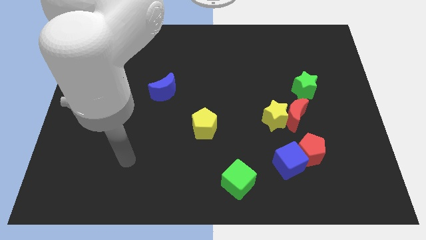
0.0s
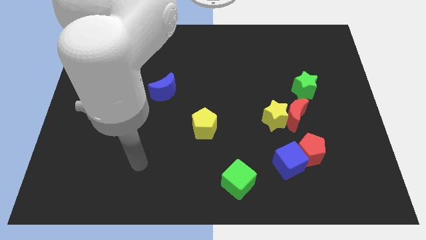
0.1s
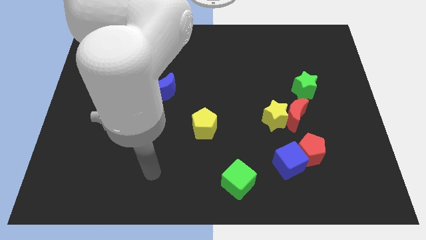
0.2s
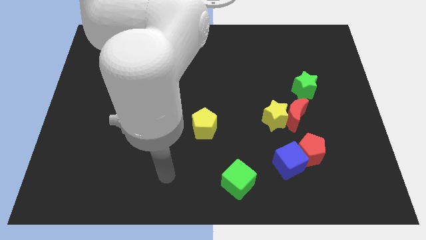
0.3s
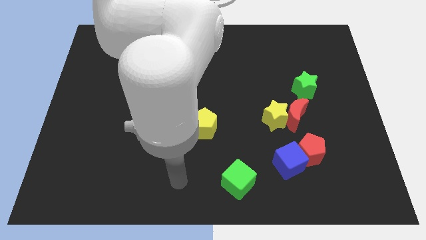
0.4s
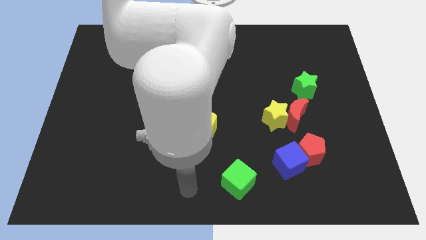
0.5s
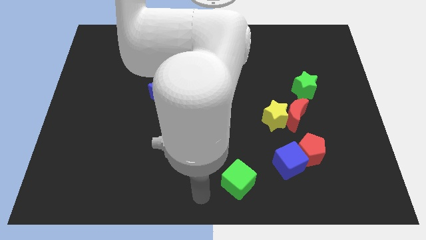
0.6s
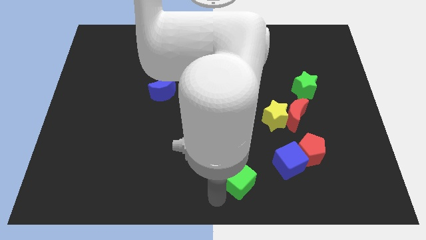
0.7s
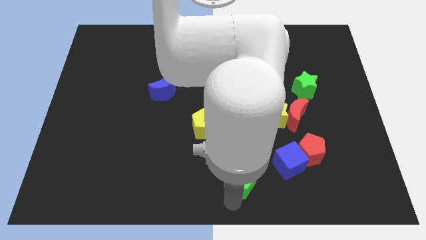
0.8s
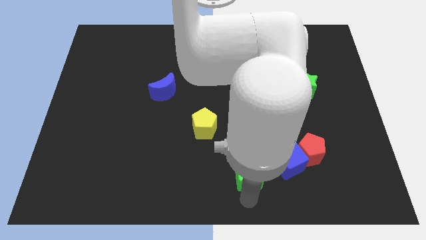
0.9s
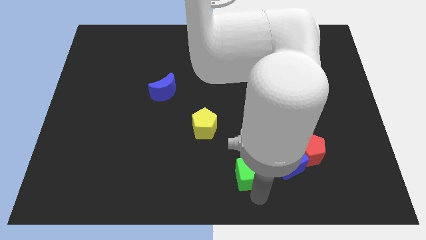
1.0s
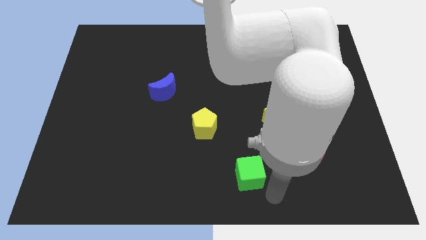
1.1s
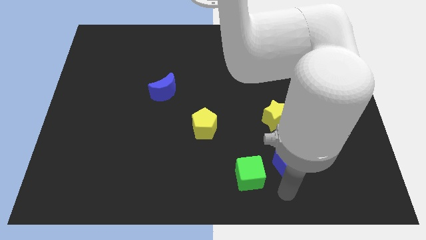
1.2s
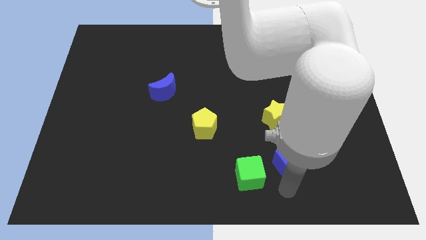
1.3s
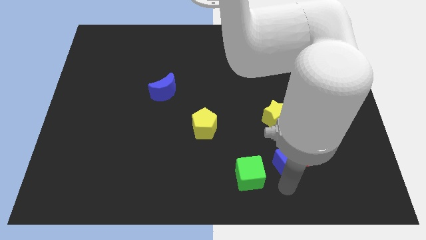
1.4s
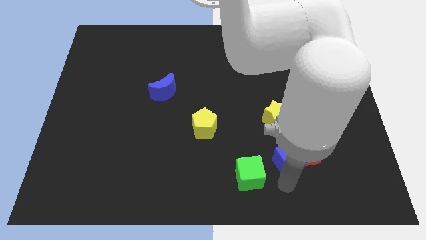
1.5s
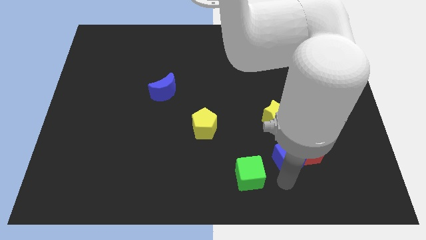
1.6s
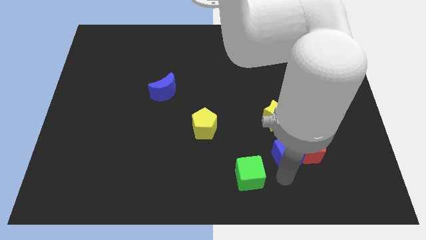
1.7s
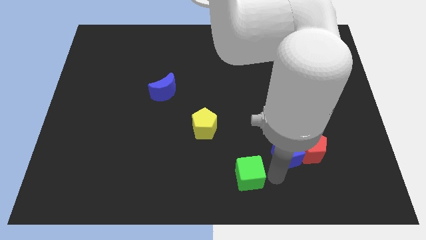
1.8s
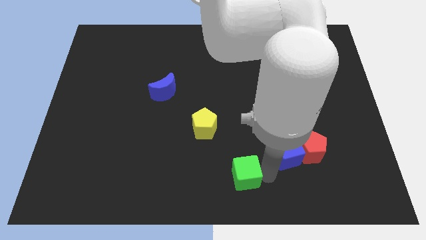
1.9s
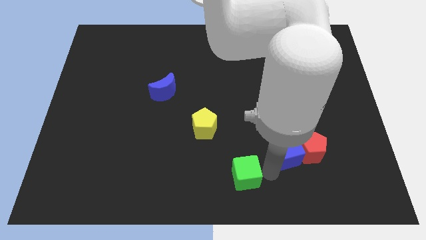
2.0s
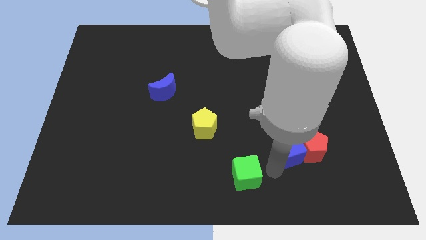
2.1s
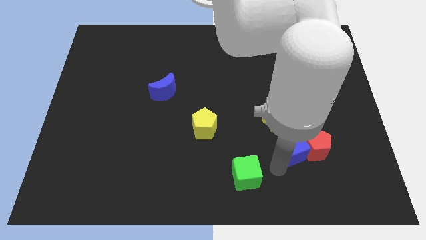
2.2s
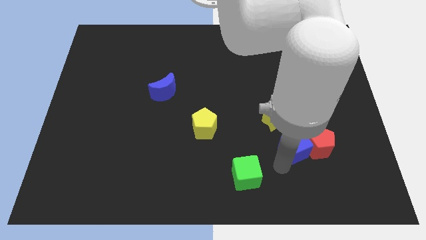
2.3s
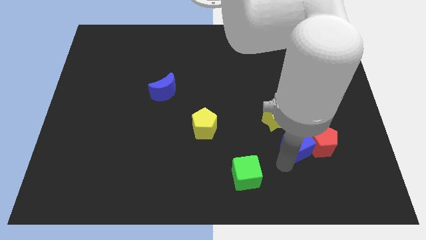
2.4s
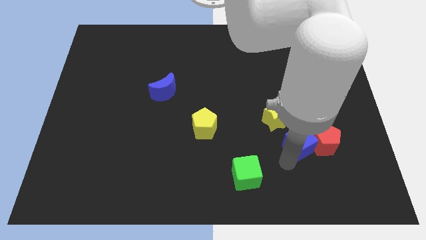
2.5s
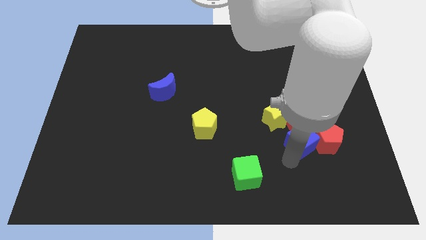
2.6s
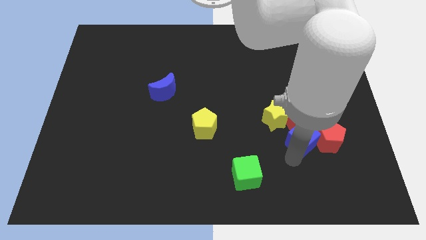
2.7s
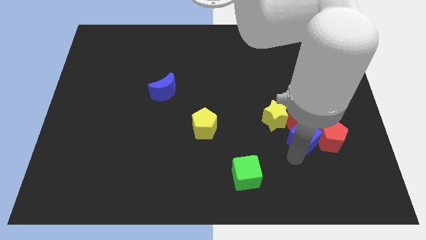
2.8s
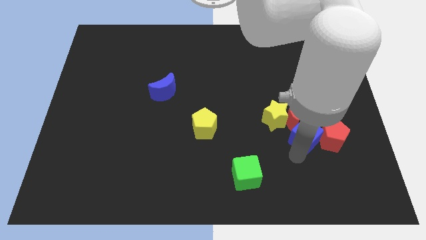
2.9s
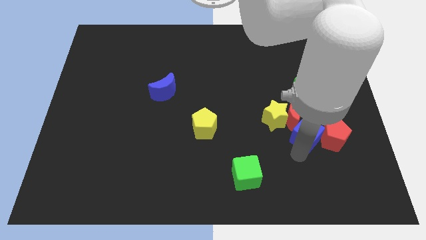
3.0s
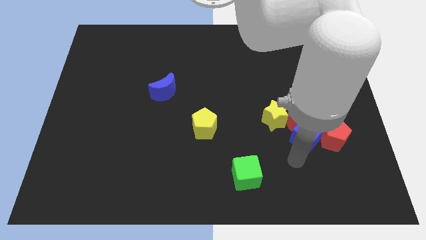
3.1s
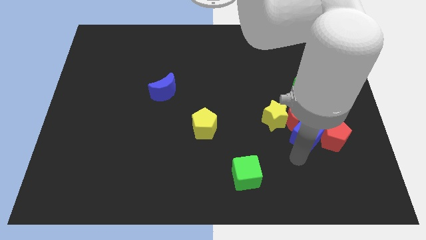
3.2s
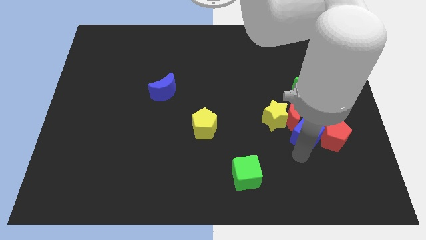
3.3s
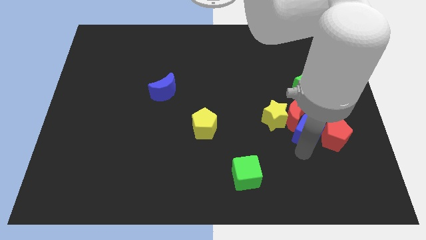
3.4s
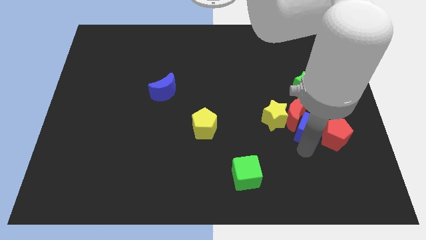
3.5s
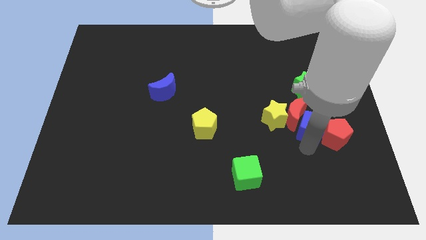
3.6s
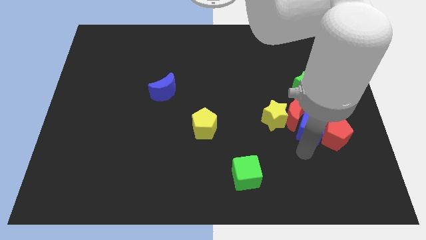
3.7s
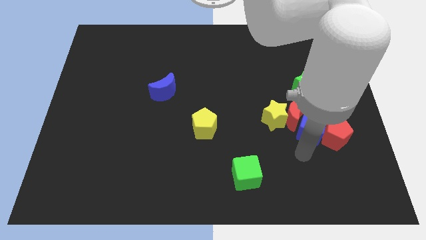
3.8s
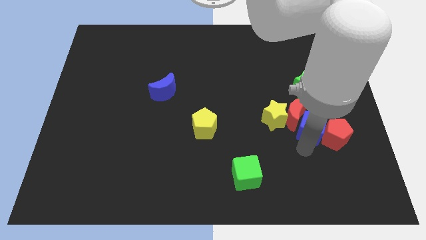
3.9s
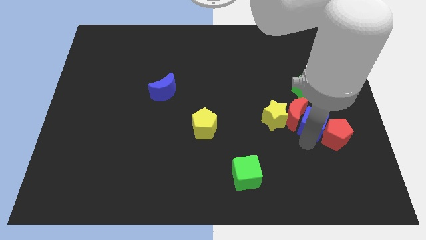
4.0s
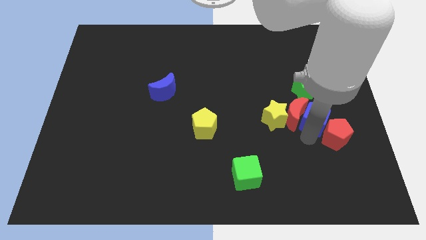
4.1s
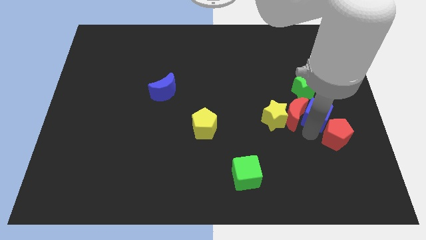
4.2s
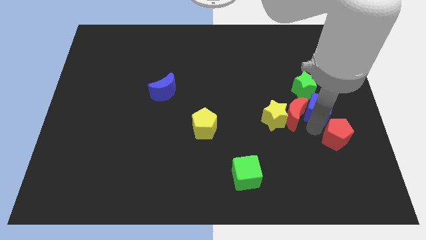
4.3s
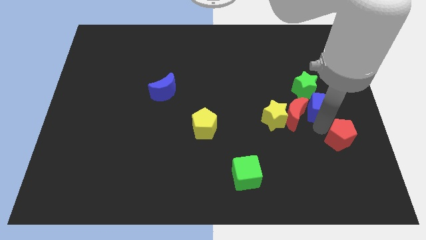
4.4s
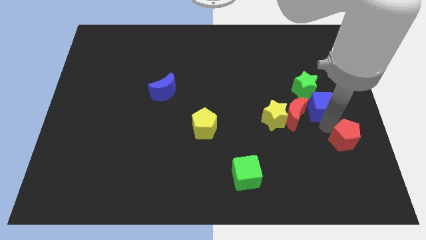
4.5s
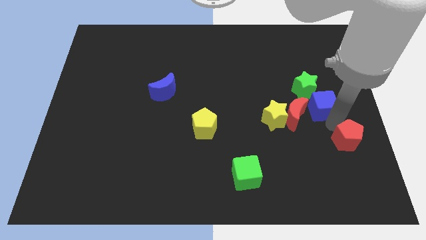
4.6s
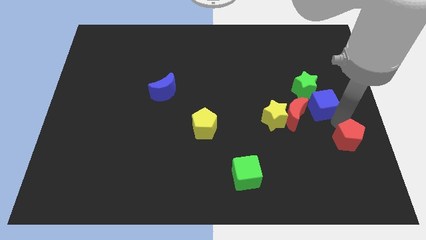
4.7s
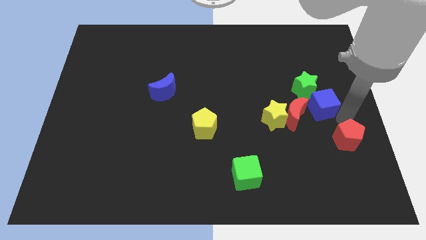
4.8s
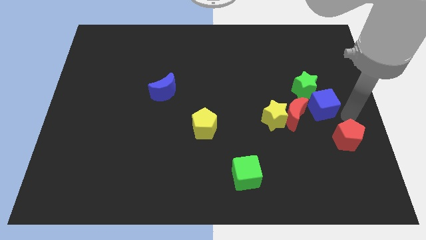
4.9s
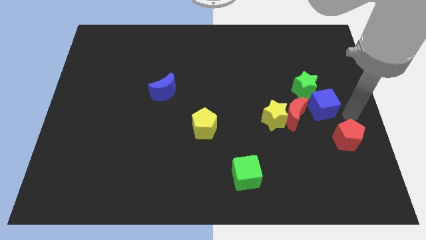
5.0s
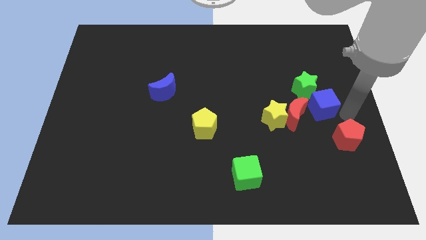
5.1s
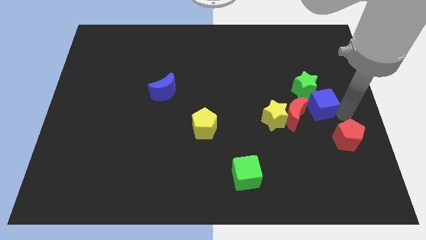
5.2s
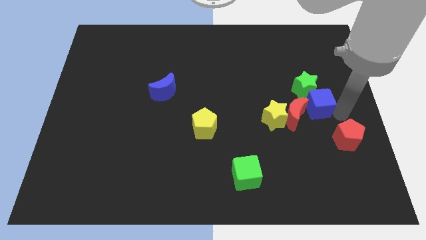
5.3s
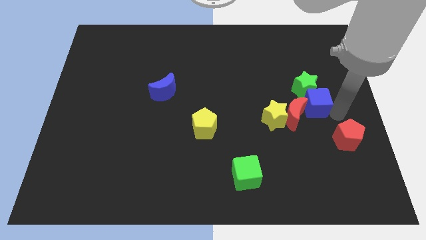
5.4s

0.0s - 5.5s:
slide the blue cube to the top right side of the yellow star

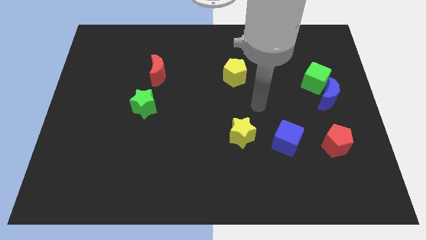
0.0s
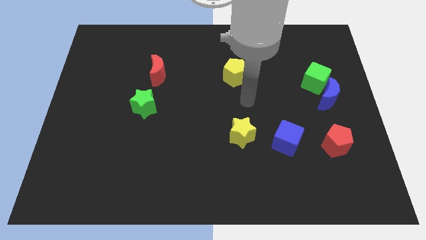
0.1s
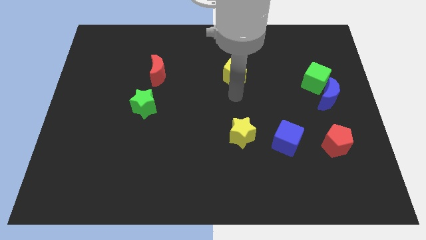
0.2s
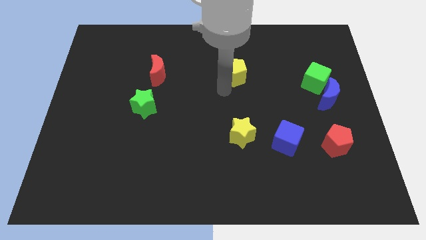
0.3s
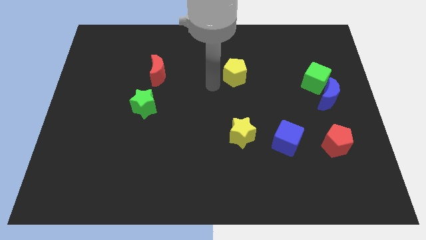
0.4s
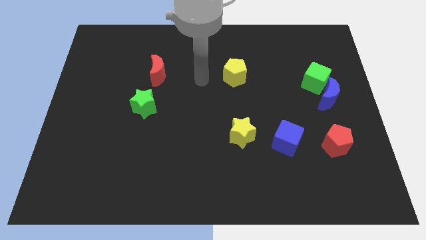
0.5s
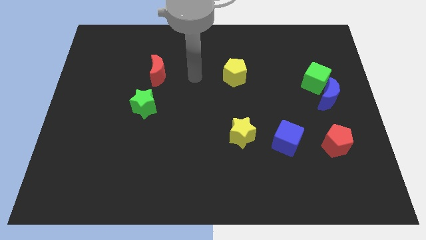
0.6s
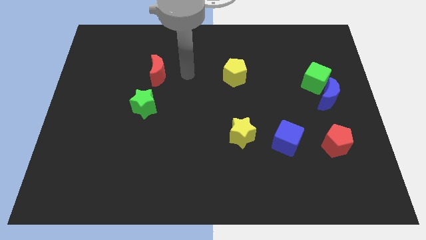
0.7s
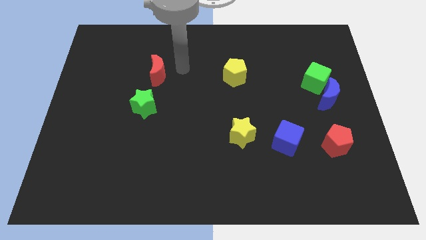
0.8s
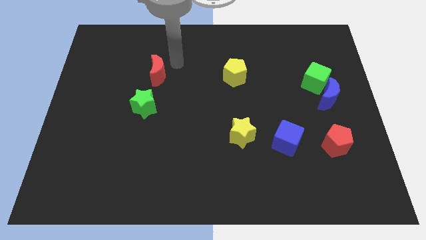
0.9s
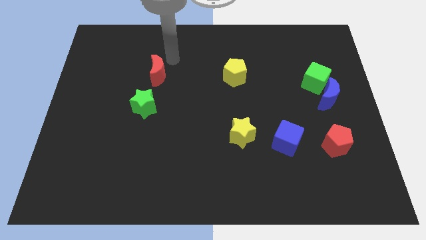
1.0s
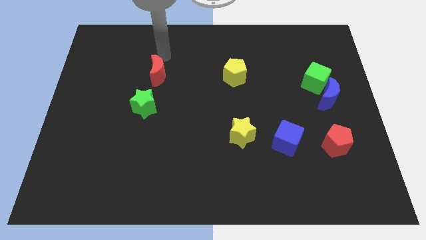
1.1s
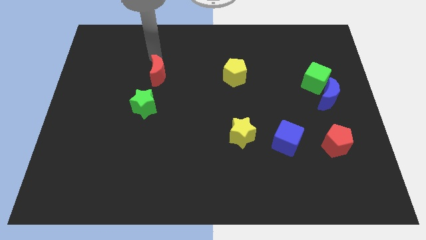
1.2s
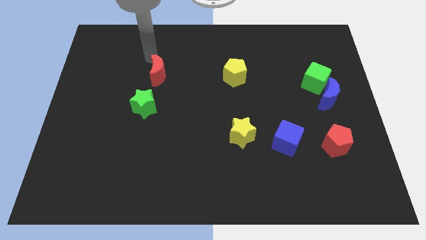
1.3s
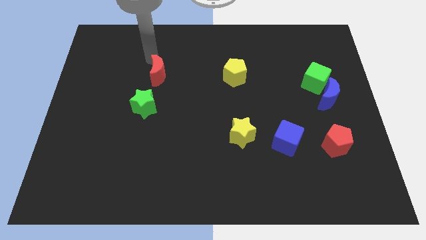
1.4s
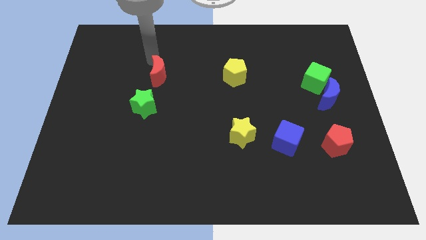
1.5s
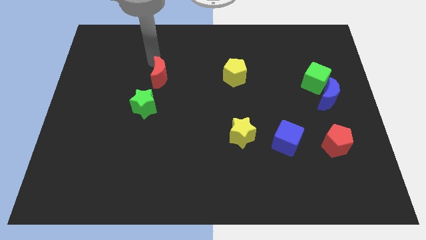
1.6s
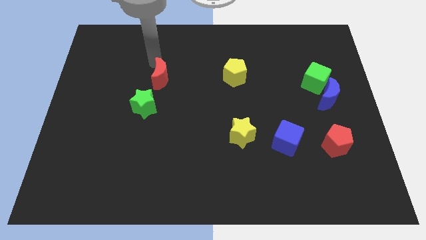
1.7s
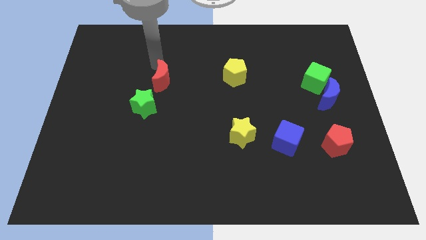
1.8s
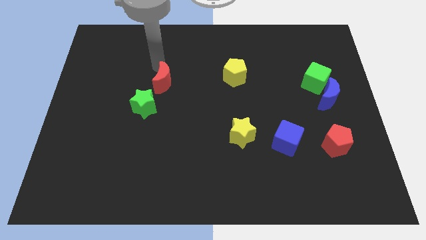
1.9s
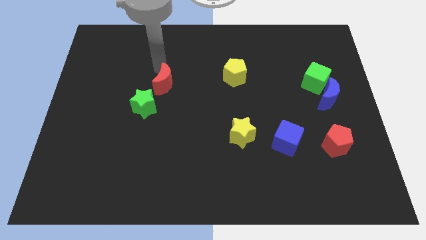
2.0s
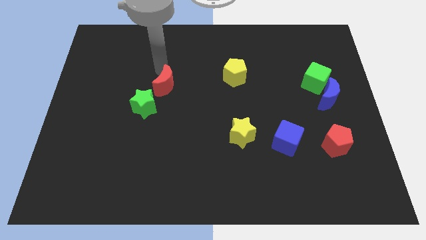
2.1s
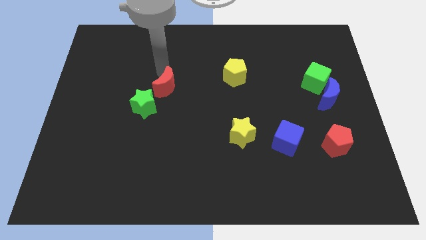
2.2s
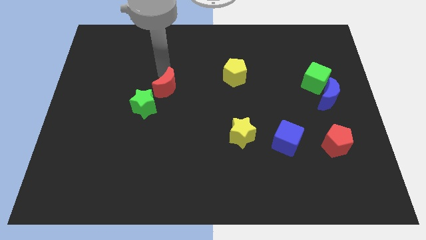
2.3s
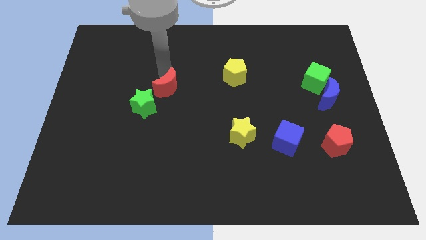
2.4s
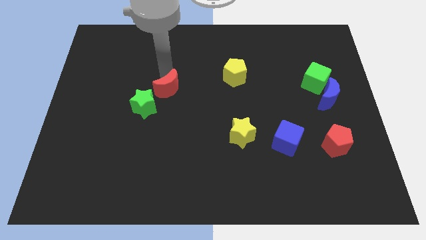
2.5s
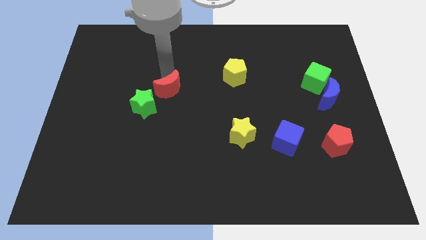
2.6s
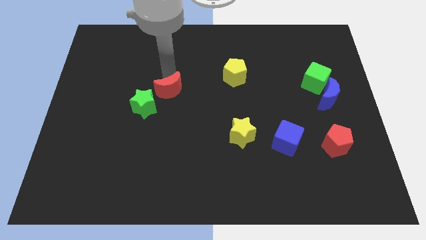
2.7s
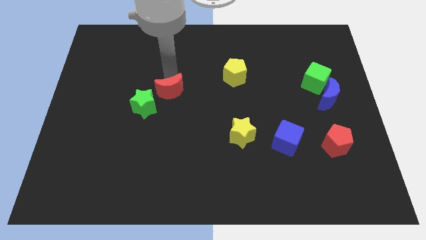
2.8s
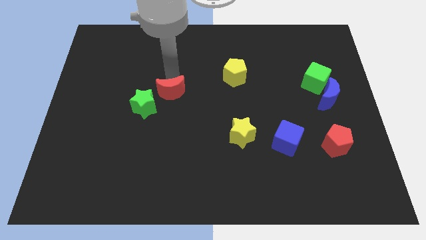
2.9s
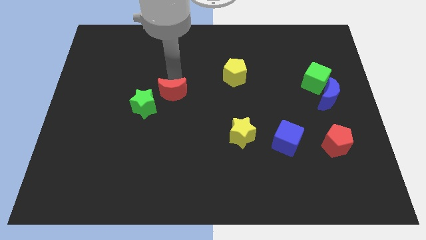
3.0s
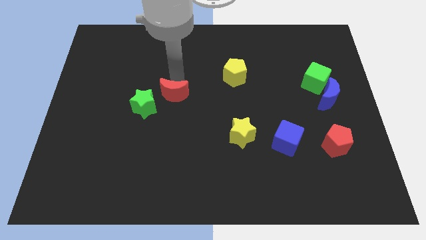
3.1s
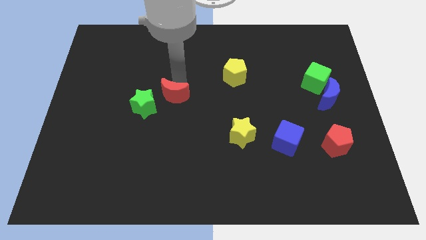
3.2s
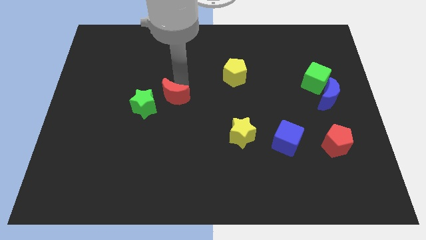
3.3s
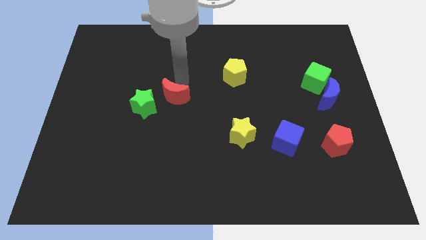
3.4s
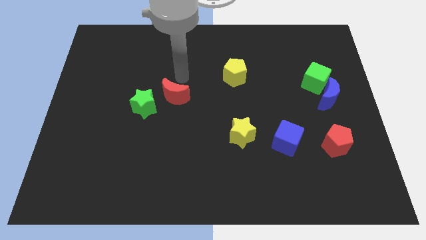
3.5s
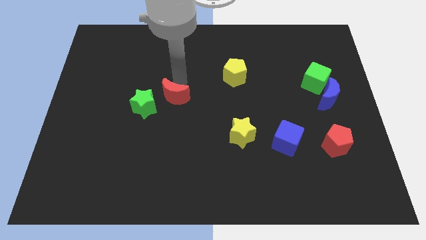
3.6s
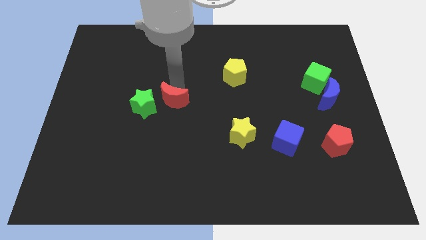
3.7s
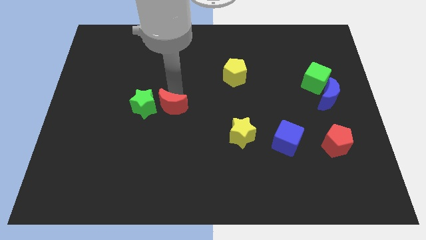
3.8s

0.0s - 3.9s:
move the red moon to the bottom right of the green star
